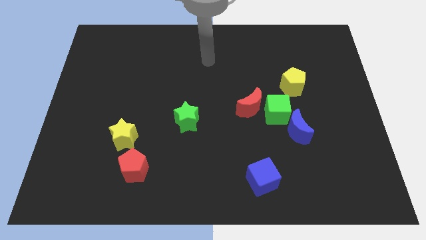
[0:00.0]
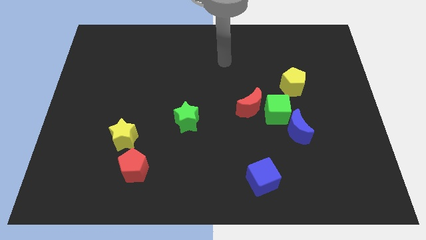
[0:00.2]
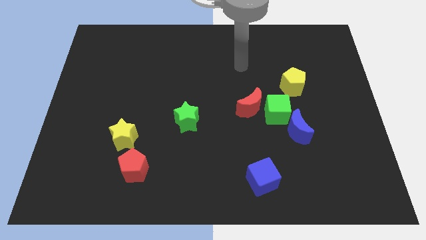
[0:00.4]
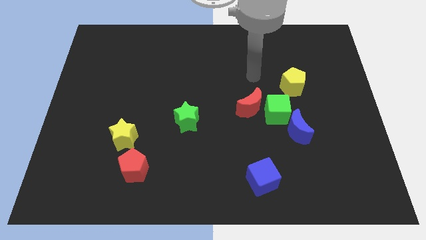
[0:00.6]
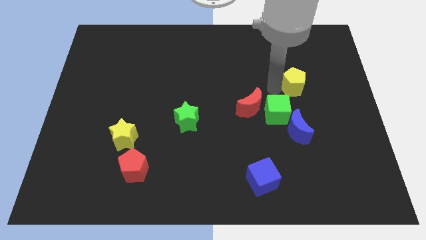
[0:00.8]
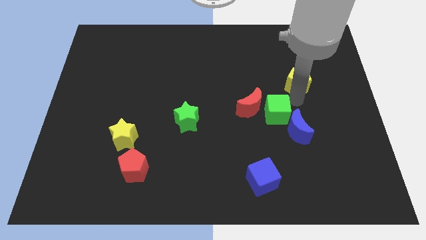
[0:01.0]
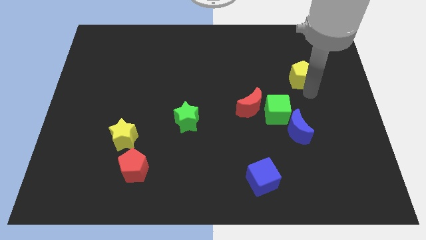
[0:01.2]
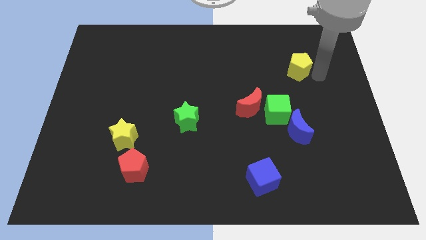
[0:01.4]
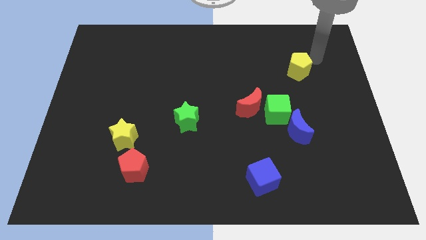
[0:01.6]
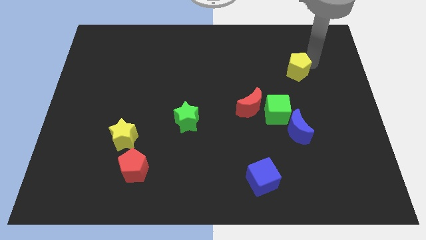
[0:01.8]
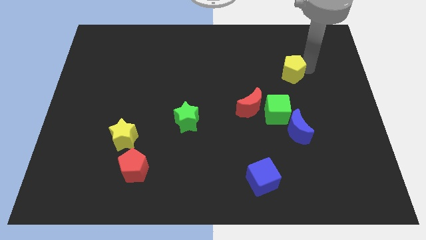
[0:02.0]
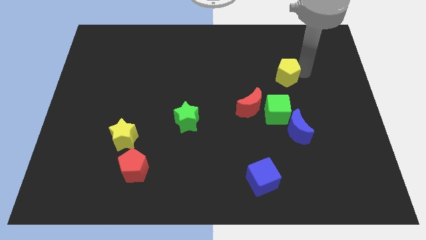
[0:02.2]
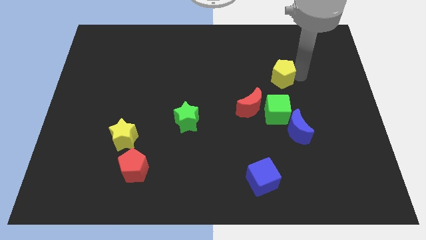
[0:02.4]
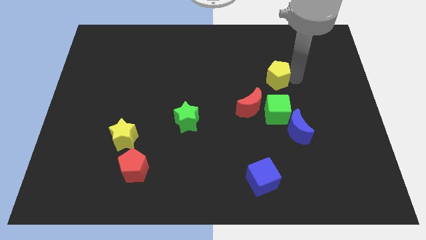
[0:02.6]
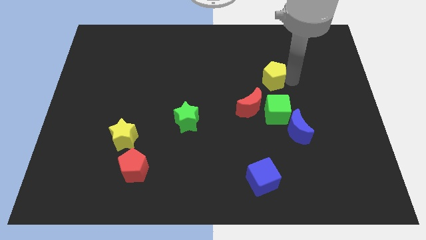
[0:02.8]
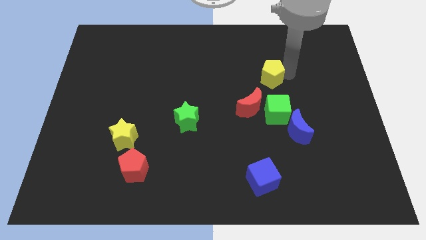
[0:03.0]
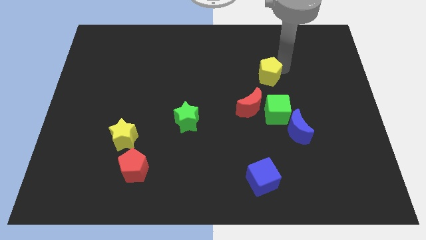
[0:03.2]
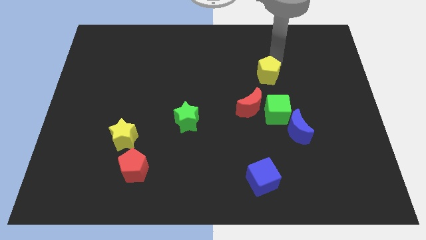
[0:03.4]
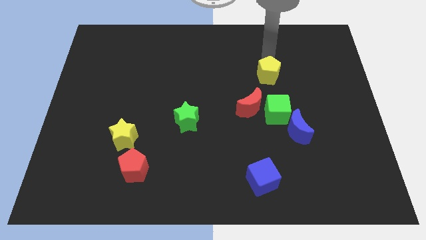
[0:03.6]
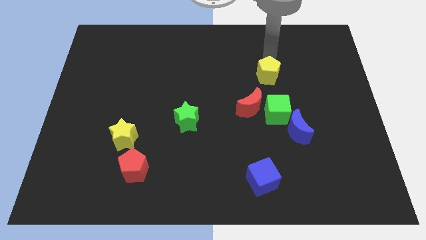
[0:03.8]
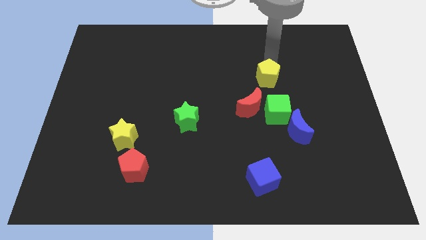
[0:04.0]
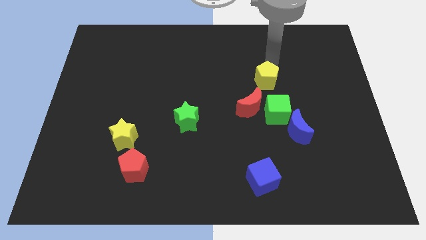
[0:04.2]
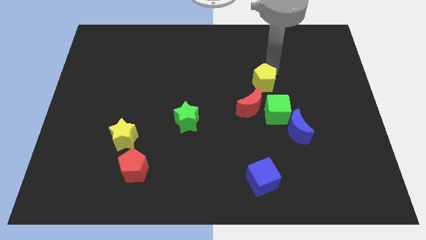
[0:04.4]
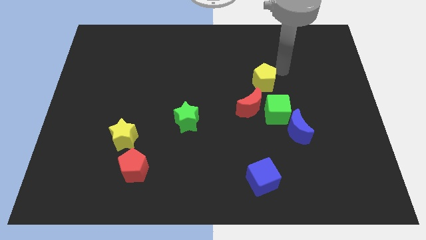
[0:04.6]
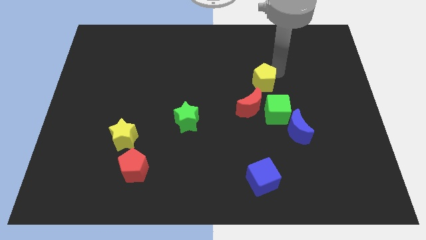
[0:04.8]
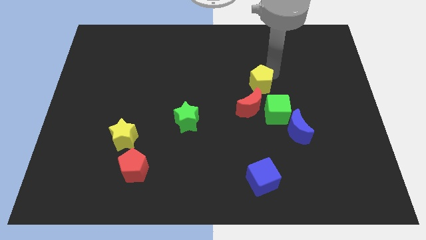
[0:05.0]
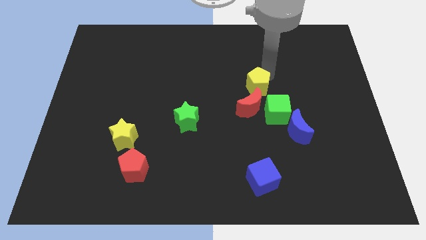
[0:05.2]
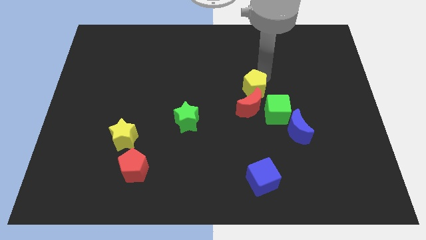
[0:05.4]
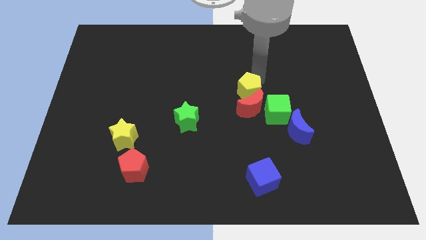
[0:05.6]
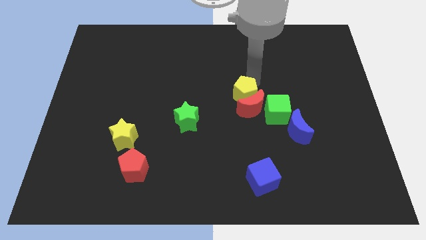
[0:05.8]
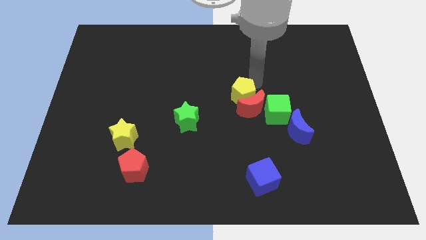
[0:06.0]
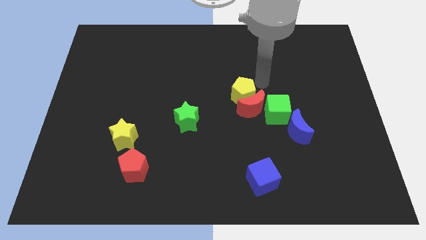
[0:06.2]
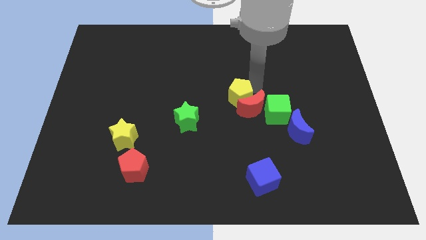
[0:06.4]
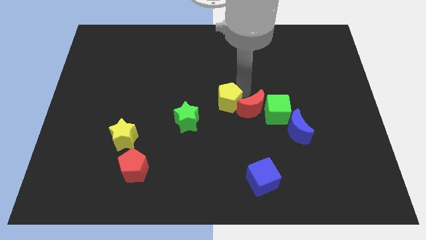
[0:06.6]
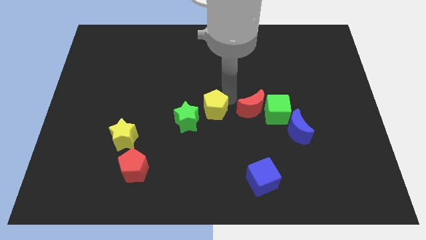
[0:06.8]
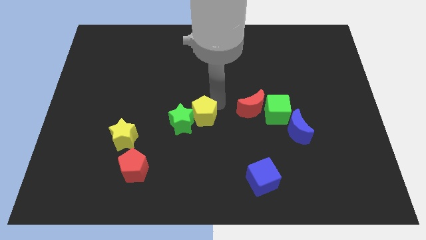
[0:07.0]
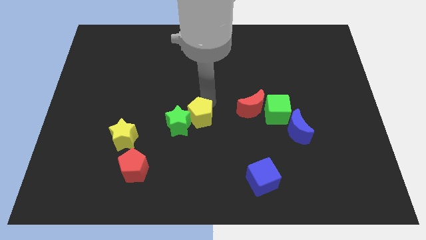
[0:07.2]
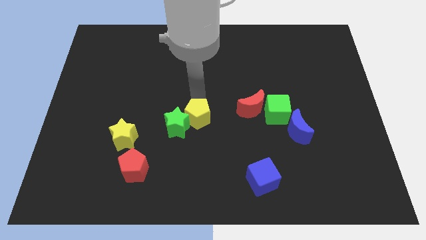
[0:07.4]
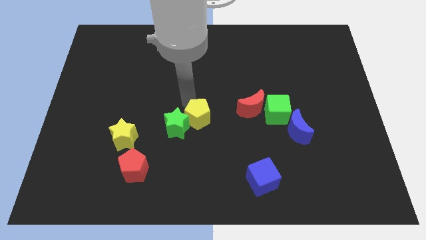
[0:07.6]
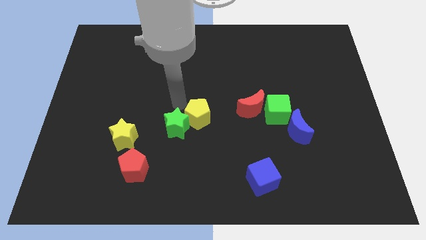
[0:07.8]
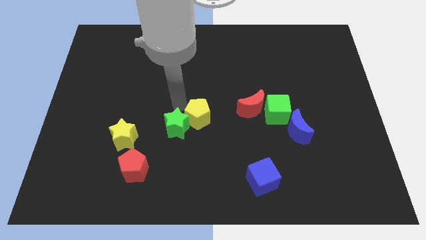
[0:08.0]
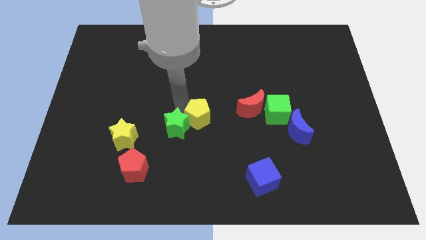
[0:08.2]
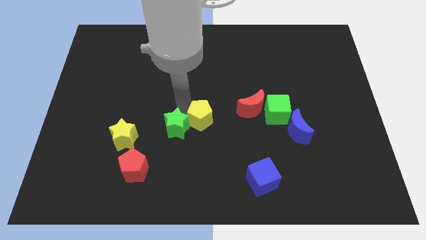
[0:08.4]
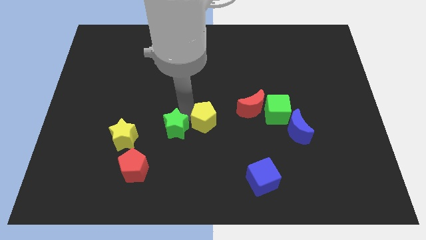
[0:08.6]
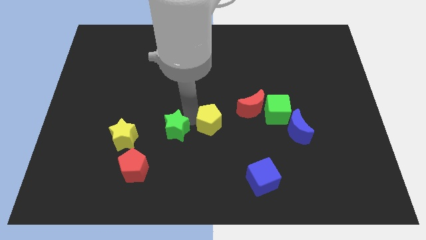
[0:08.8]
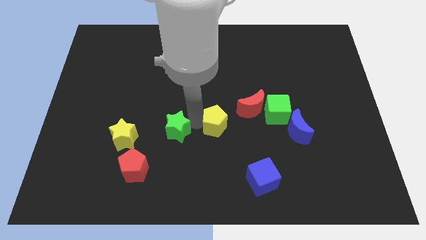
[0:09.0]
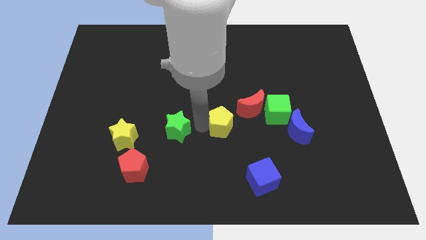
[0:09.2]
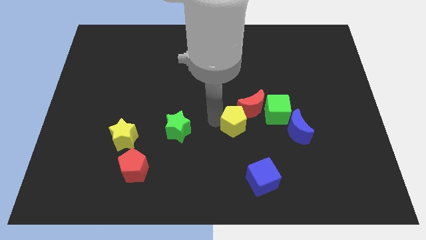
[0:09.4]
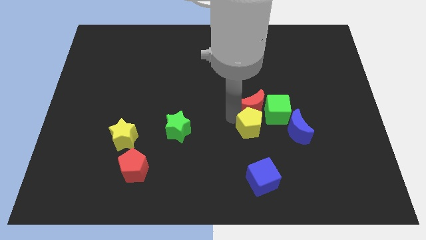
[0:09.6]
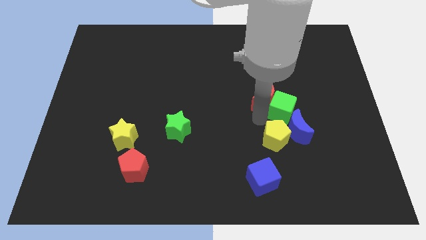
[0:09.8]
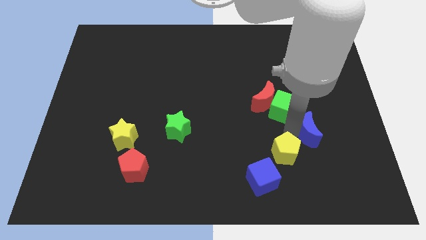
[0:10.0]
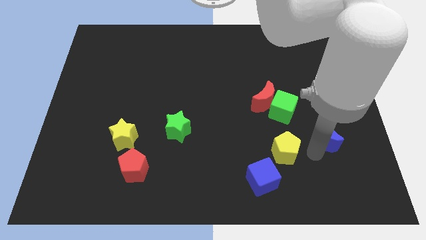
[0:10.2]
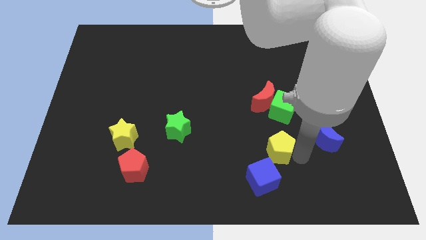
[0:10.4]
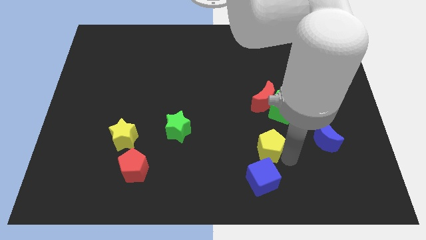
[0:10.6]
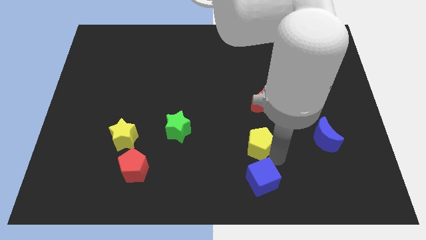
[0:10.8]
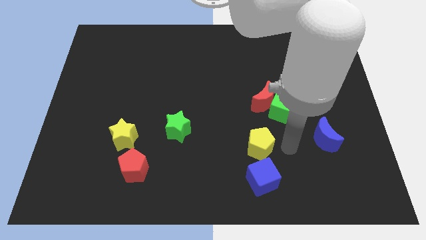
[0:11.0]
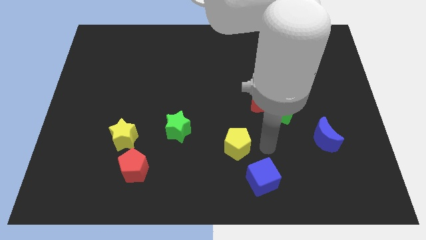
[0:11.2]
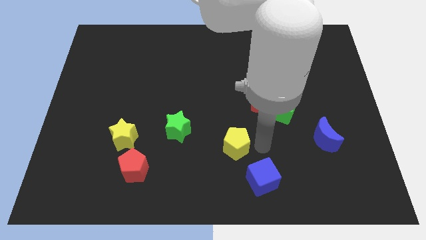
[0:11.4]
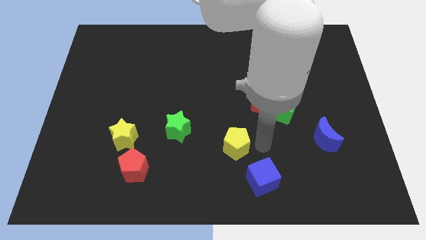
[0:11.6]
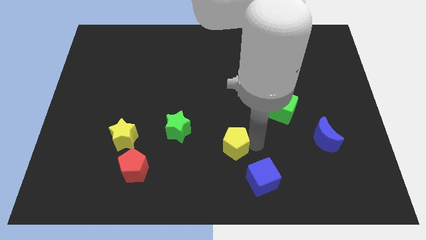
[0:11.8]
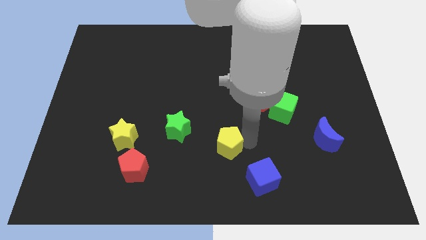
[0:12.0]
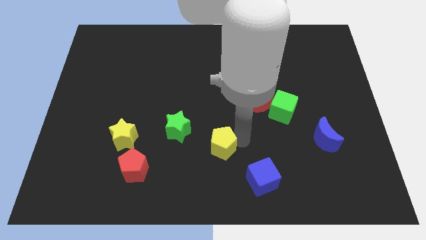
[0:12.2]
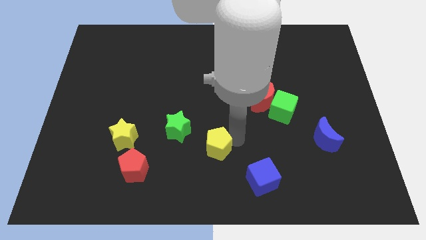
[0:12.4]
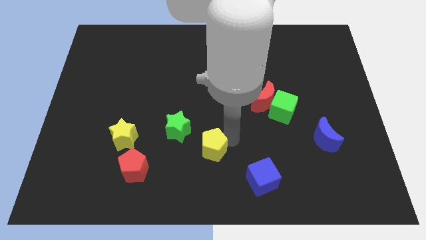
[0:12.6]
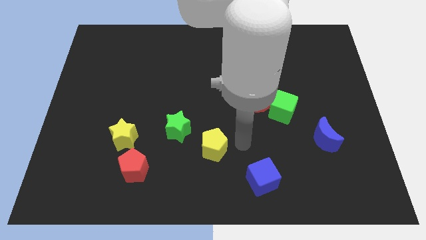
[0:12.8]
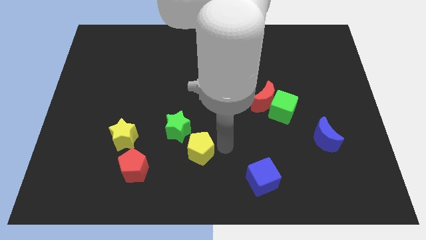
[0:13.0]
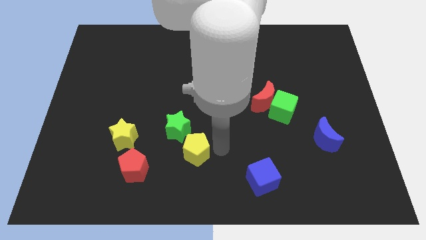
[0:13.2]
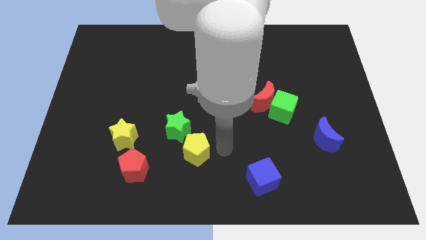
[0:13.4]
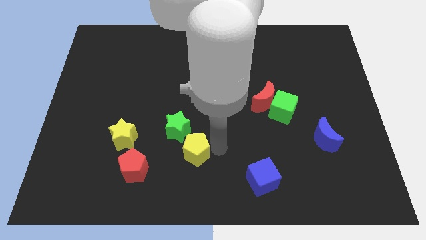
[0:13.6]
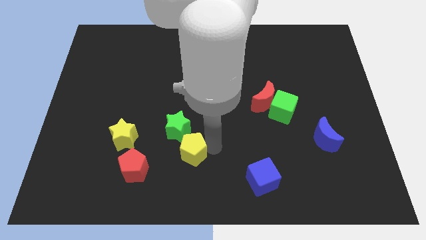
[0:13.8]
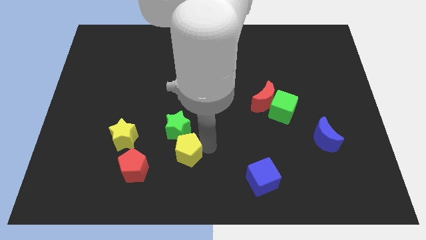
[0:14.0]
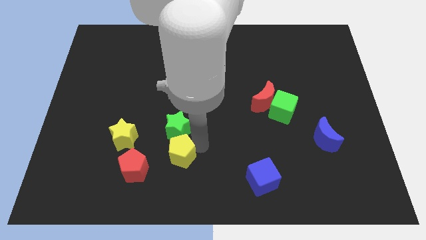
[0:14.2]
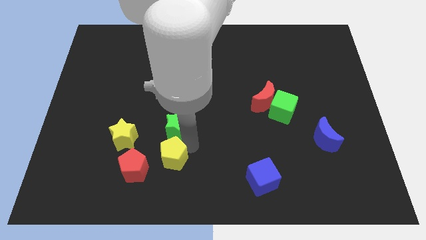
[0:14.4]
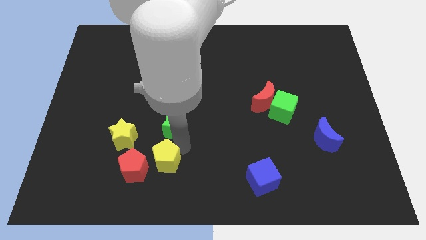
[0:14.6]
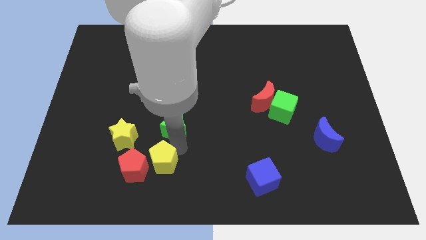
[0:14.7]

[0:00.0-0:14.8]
put the yellow pentagon next to the red pentagon

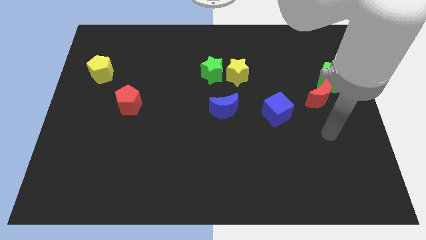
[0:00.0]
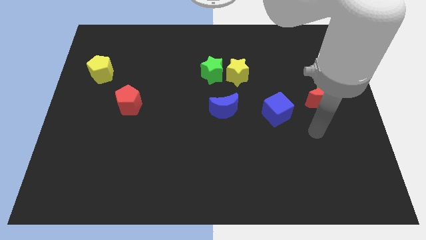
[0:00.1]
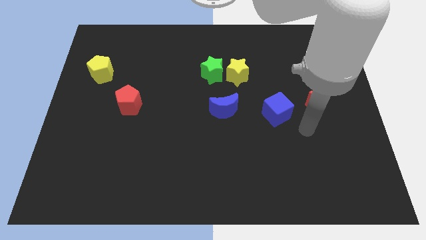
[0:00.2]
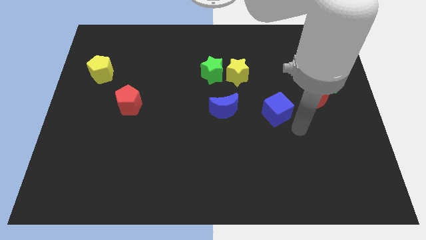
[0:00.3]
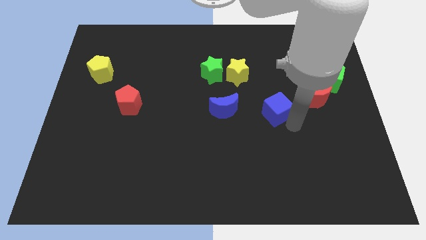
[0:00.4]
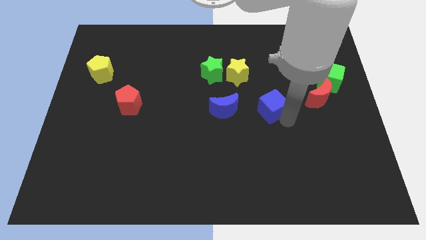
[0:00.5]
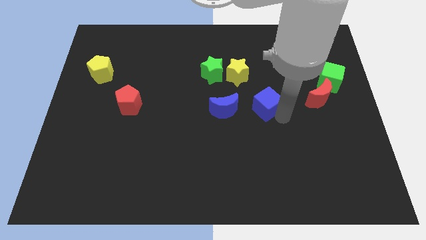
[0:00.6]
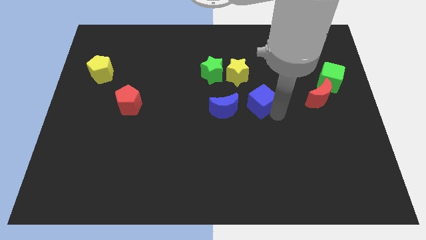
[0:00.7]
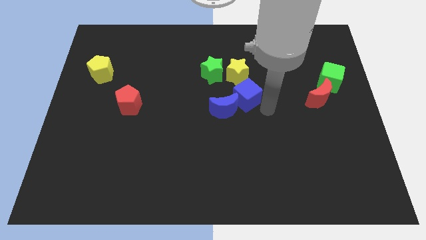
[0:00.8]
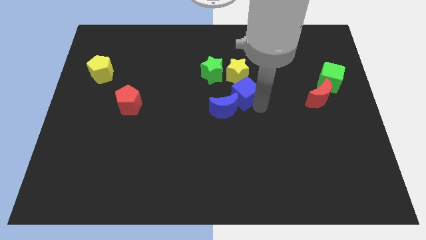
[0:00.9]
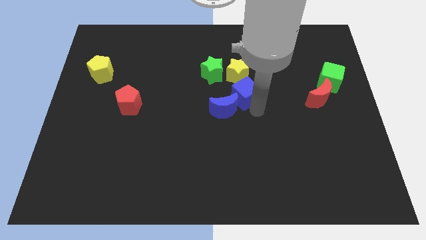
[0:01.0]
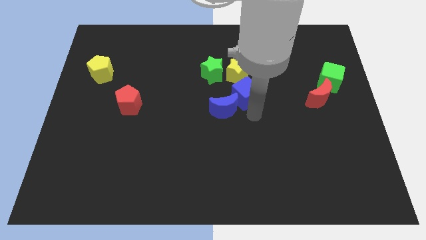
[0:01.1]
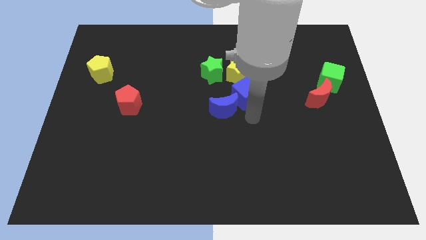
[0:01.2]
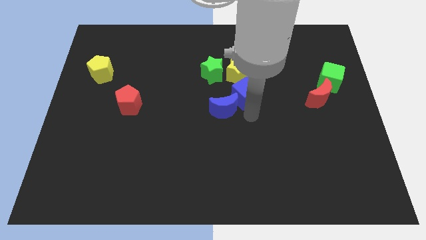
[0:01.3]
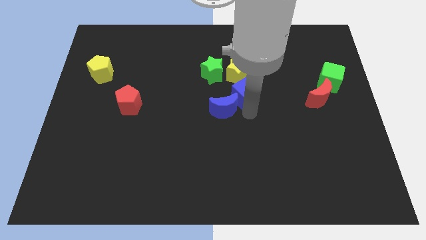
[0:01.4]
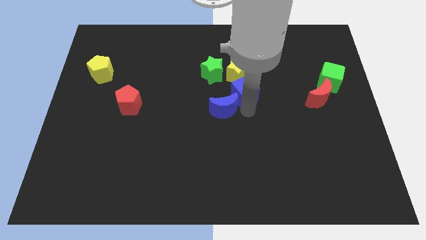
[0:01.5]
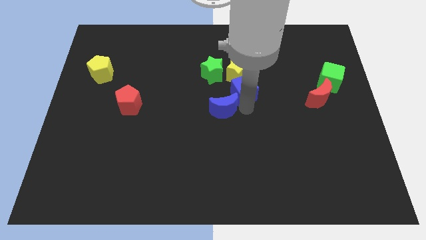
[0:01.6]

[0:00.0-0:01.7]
slide the blue cube close to the yellow star
